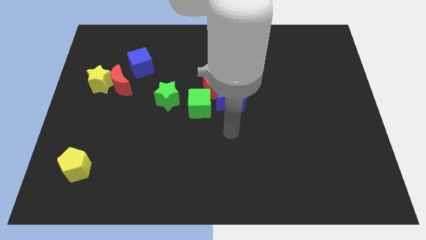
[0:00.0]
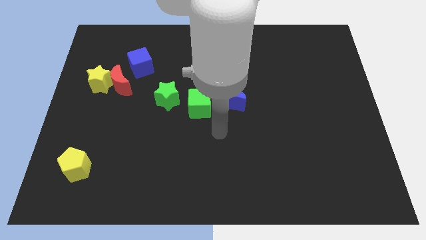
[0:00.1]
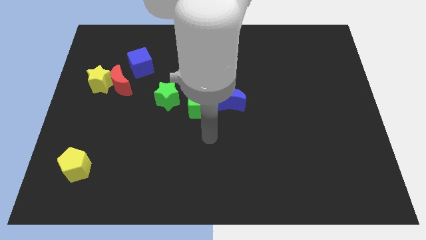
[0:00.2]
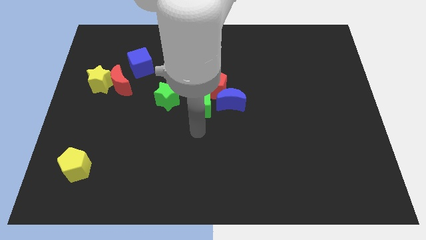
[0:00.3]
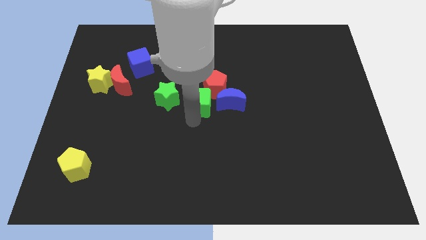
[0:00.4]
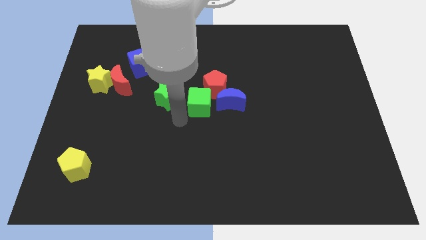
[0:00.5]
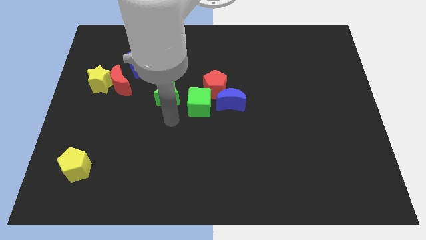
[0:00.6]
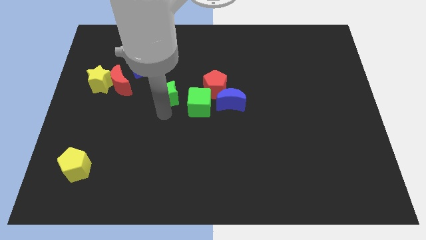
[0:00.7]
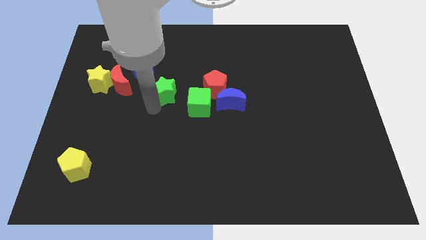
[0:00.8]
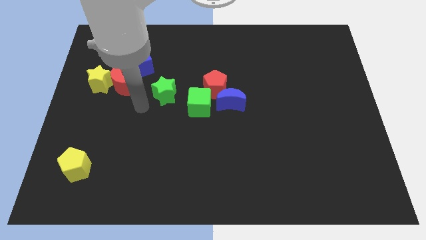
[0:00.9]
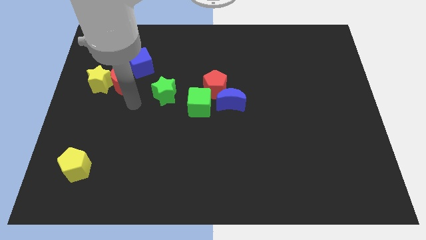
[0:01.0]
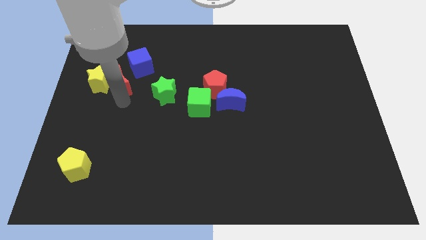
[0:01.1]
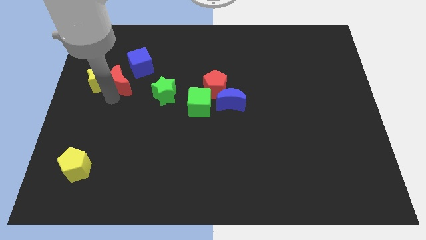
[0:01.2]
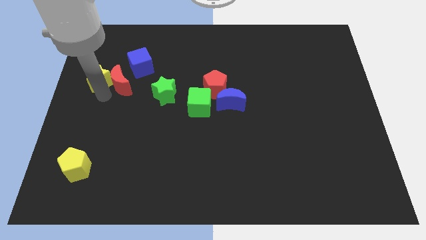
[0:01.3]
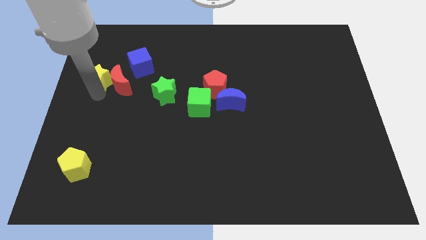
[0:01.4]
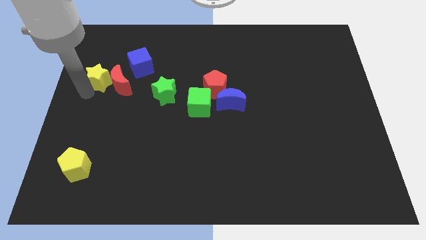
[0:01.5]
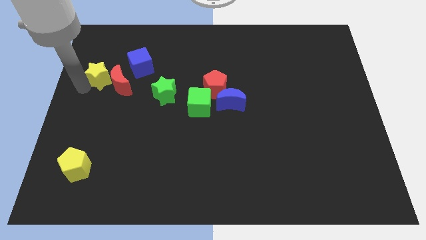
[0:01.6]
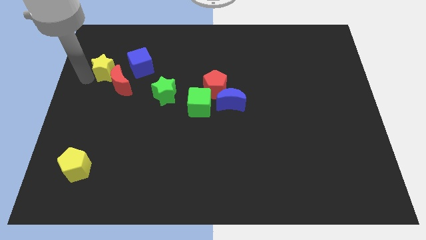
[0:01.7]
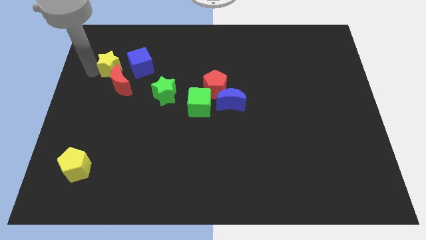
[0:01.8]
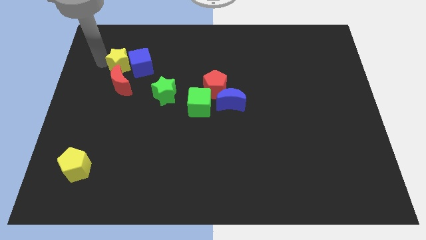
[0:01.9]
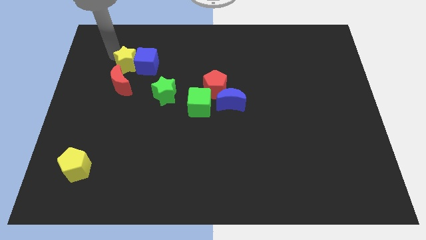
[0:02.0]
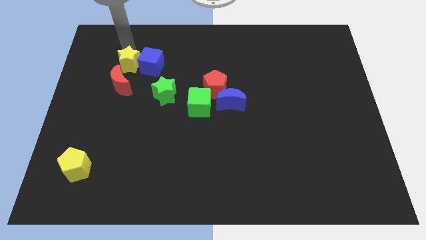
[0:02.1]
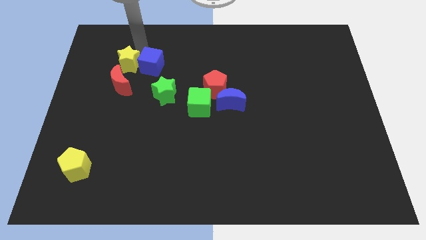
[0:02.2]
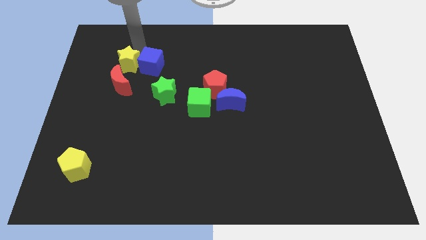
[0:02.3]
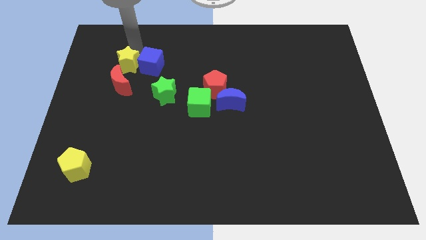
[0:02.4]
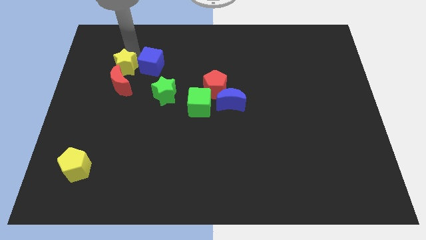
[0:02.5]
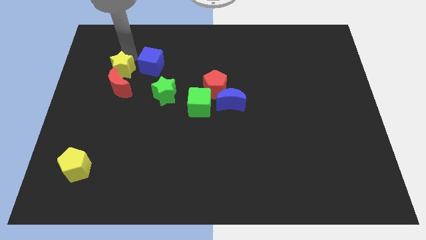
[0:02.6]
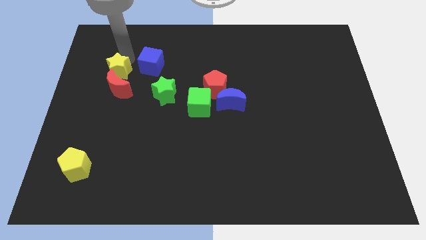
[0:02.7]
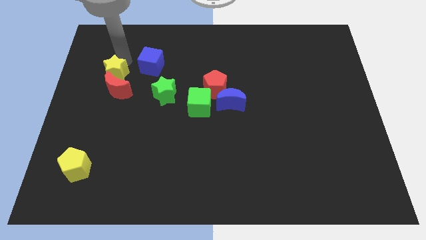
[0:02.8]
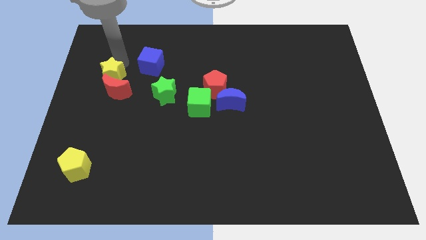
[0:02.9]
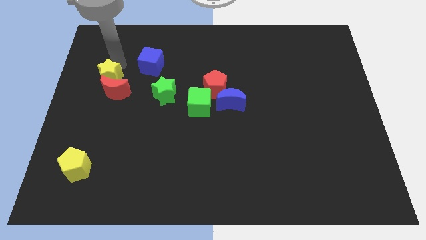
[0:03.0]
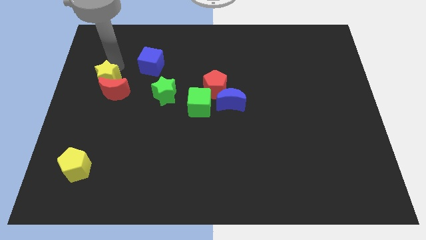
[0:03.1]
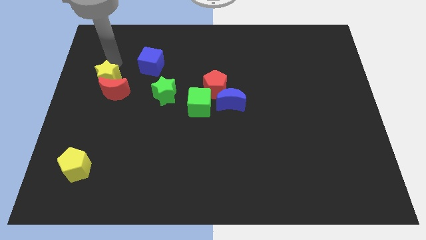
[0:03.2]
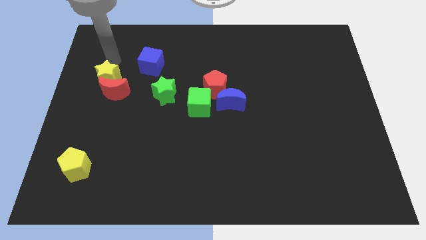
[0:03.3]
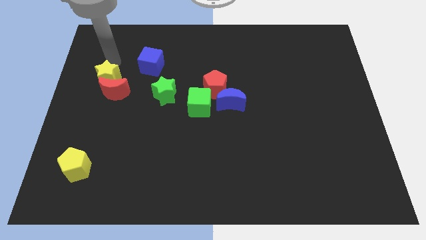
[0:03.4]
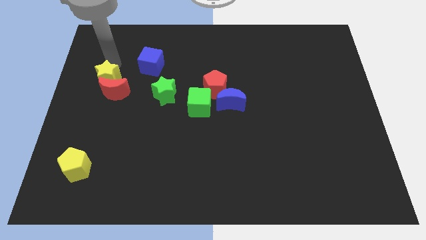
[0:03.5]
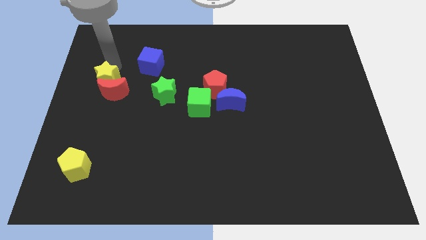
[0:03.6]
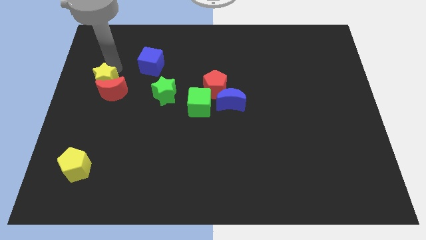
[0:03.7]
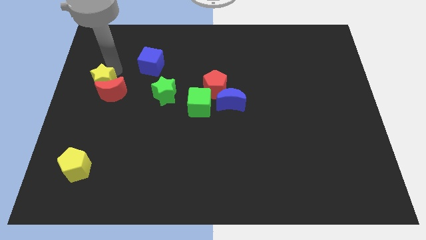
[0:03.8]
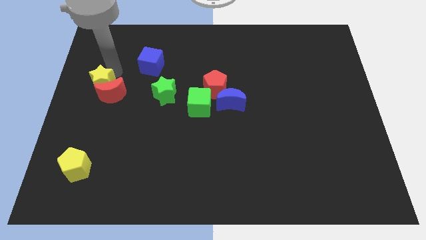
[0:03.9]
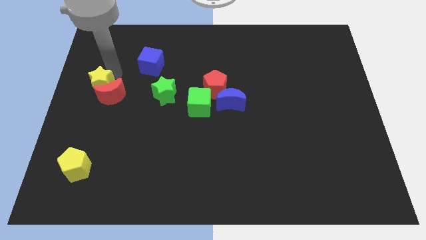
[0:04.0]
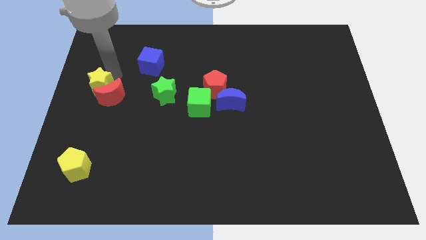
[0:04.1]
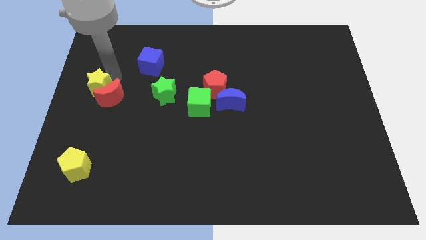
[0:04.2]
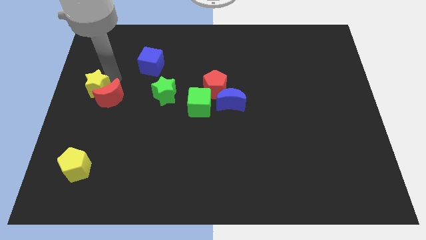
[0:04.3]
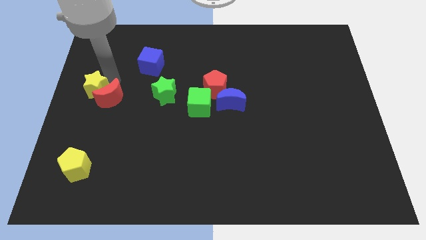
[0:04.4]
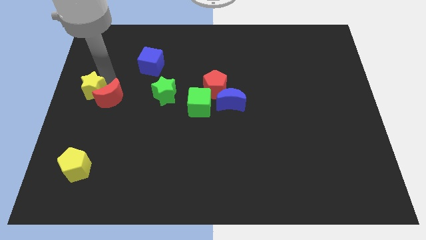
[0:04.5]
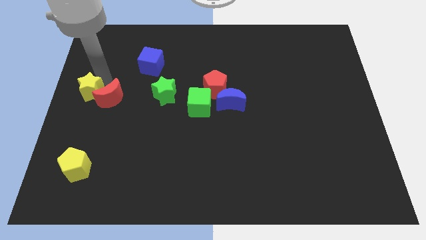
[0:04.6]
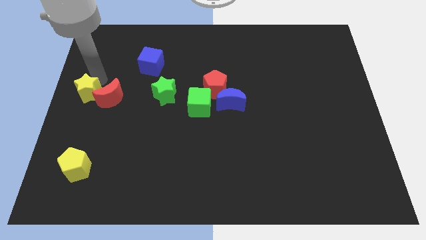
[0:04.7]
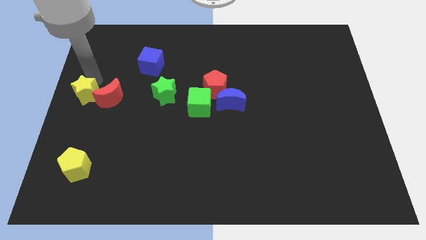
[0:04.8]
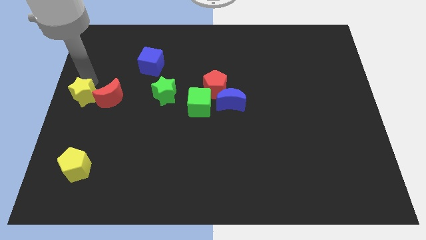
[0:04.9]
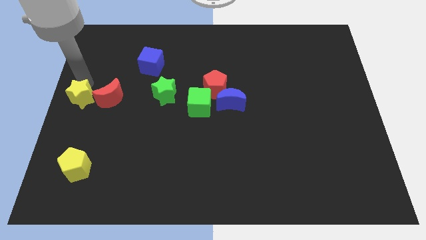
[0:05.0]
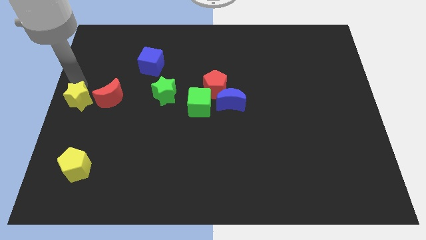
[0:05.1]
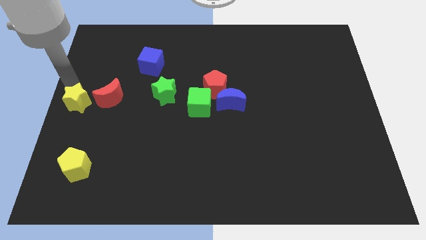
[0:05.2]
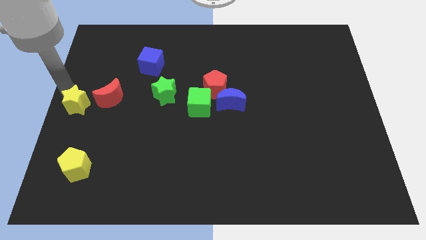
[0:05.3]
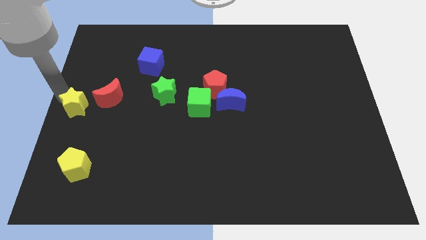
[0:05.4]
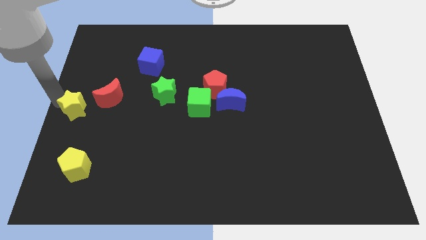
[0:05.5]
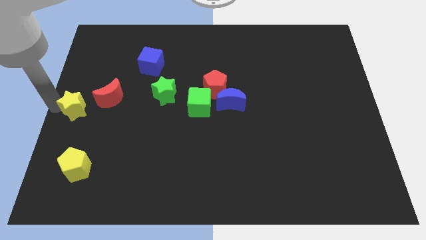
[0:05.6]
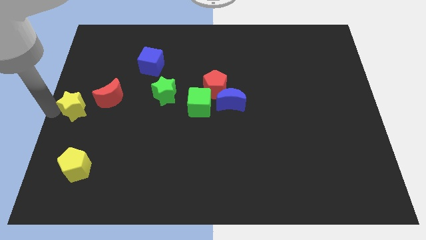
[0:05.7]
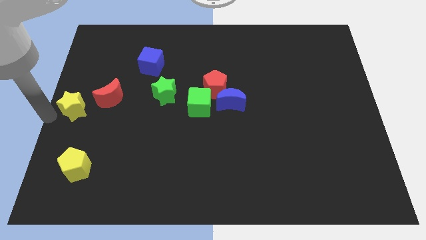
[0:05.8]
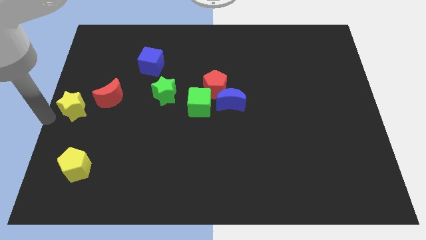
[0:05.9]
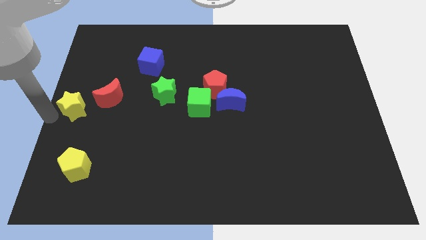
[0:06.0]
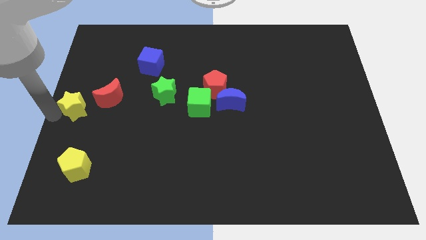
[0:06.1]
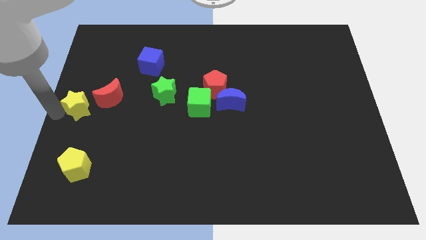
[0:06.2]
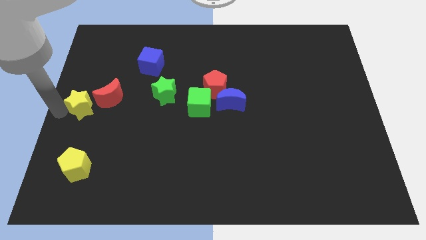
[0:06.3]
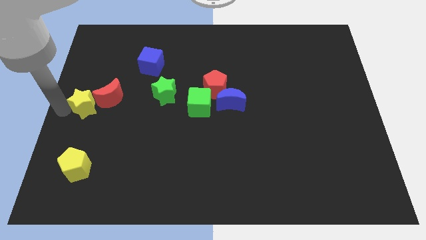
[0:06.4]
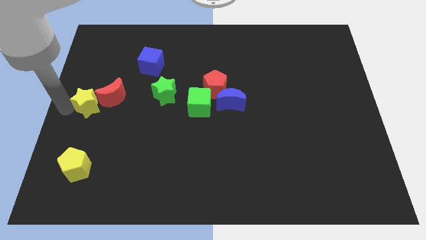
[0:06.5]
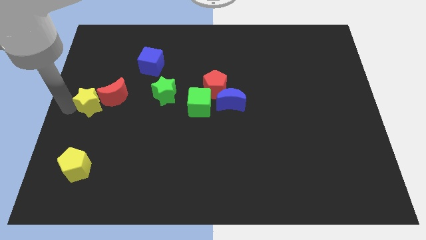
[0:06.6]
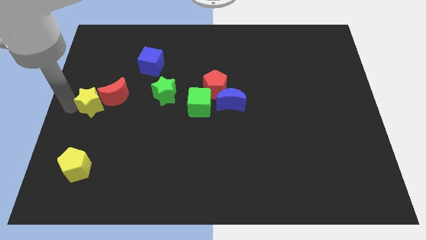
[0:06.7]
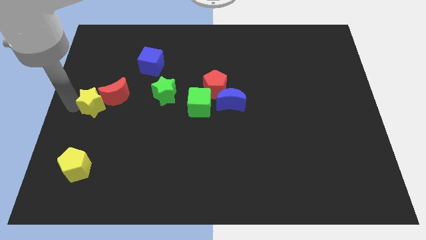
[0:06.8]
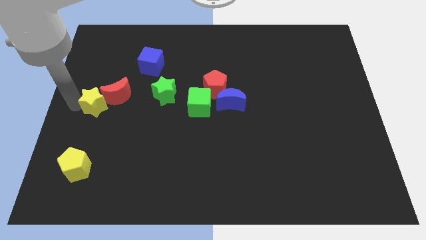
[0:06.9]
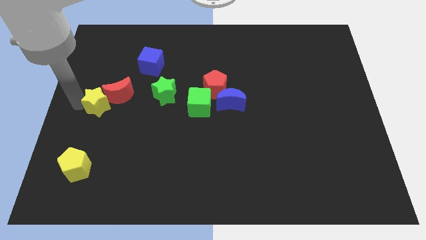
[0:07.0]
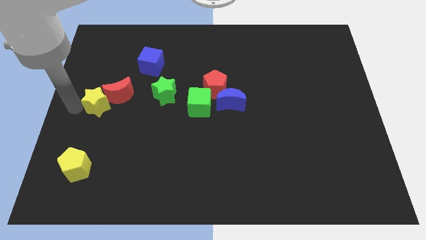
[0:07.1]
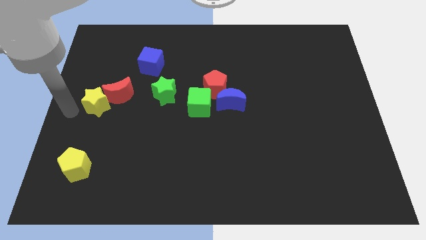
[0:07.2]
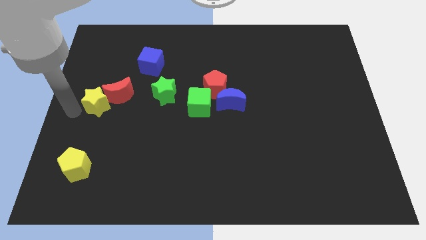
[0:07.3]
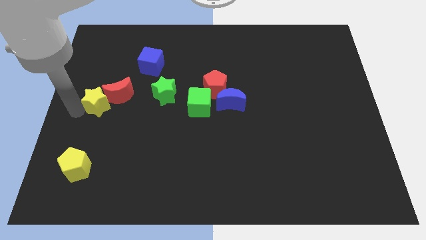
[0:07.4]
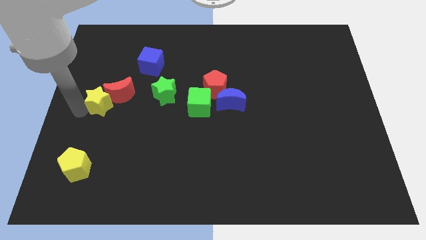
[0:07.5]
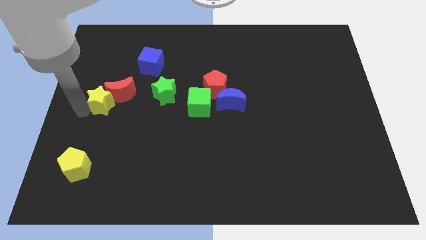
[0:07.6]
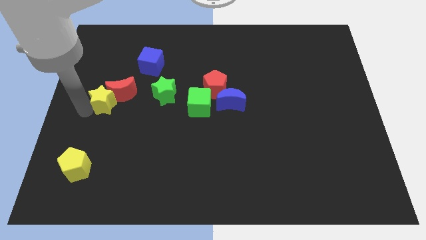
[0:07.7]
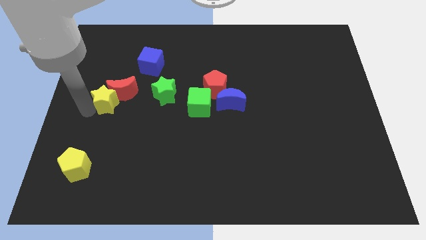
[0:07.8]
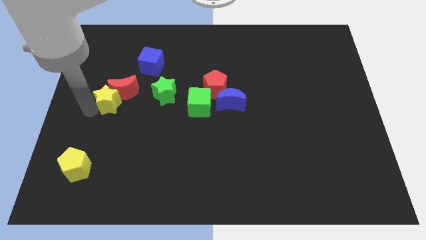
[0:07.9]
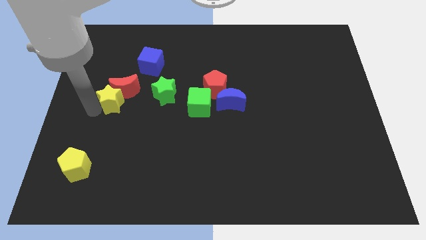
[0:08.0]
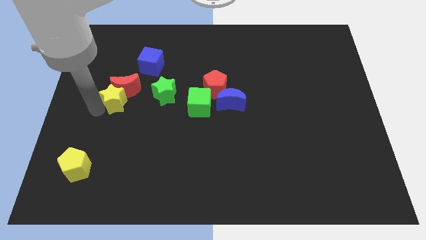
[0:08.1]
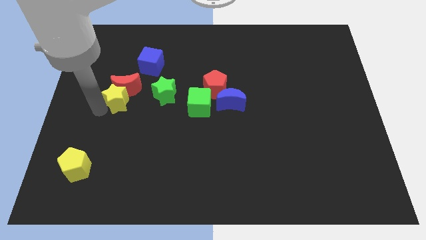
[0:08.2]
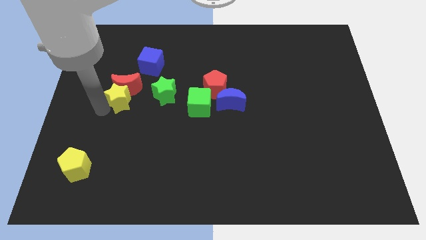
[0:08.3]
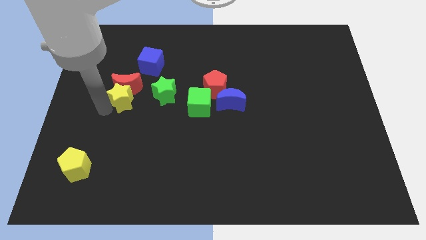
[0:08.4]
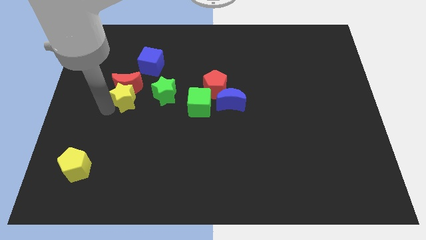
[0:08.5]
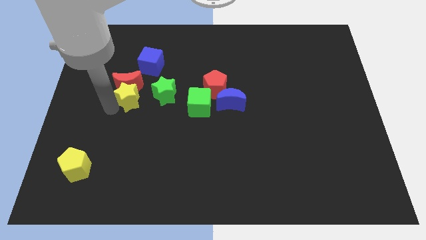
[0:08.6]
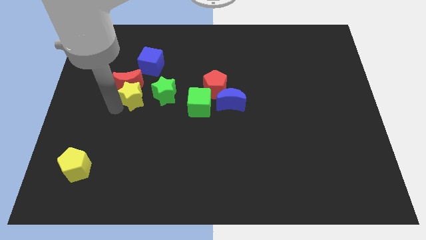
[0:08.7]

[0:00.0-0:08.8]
slightly move the yellow star to the right
